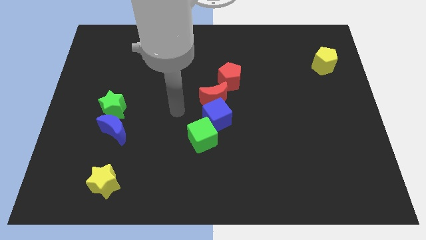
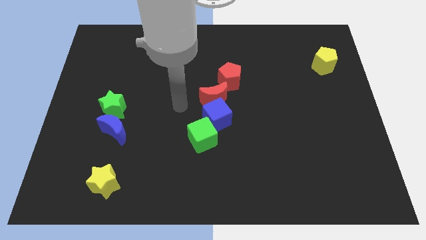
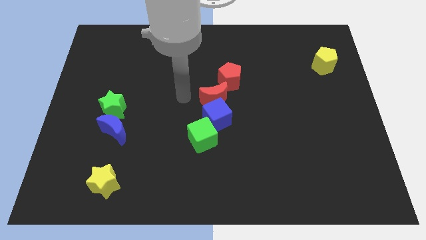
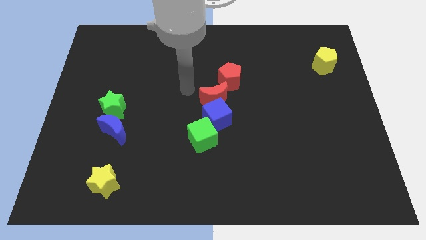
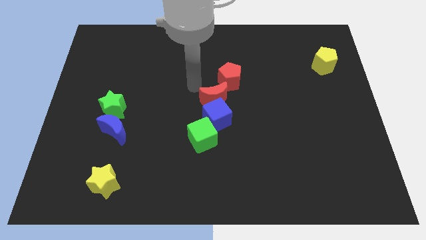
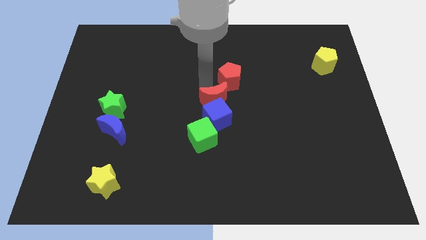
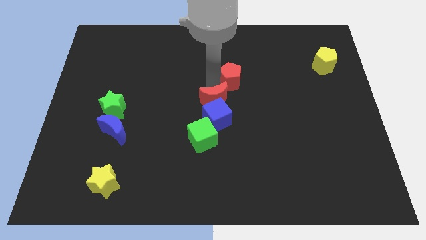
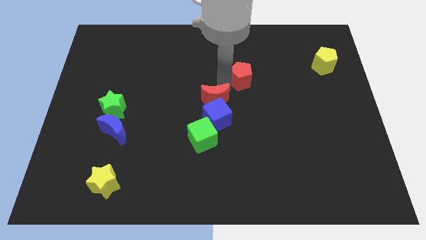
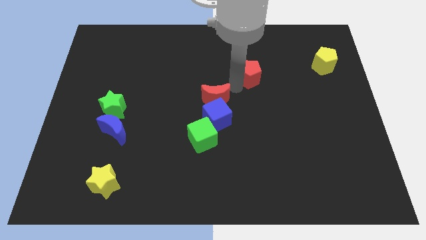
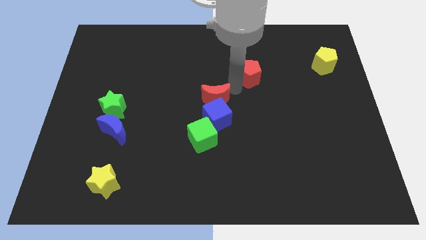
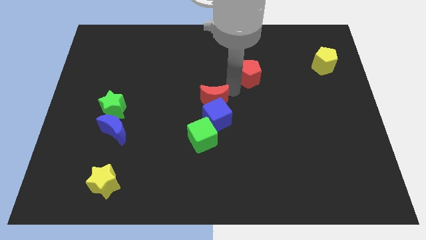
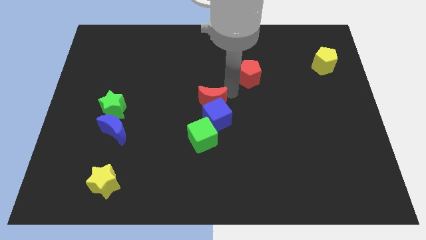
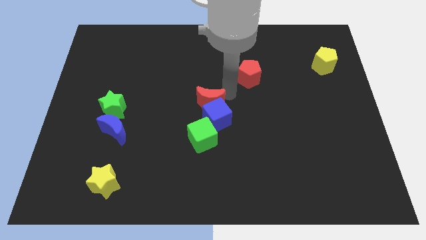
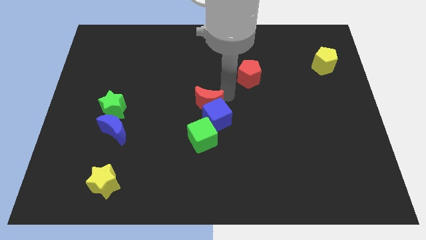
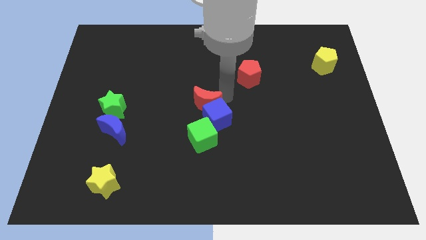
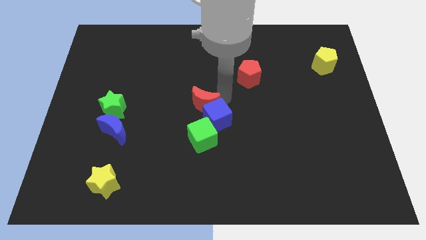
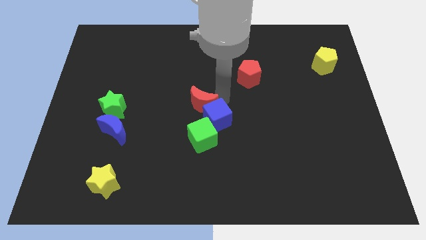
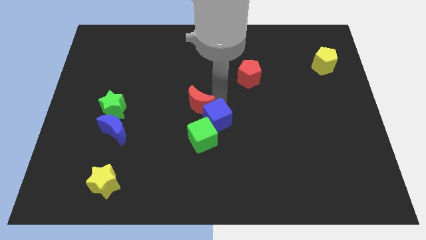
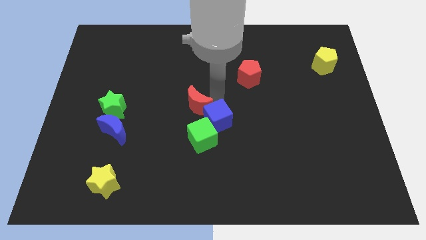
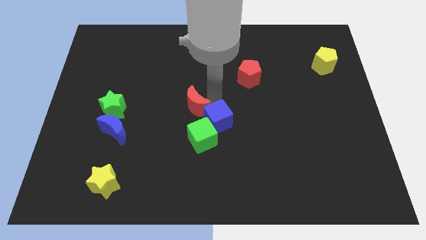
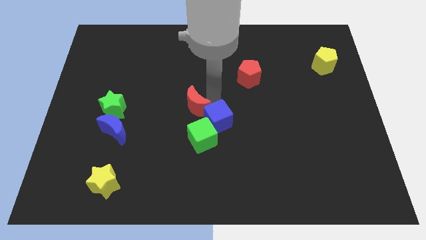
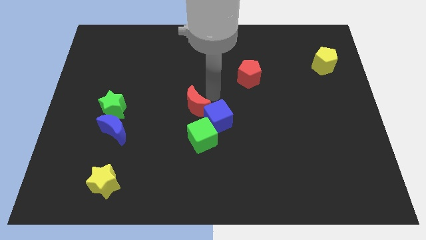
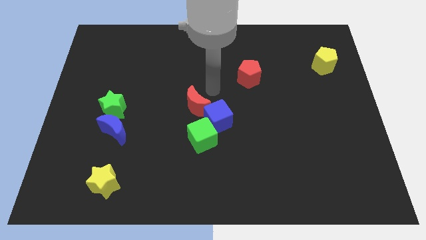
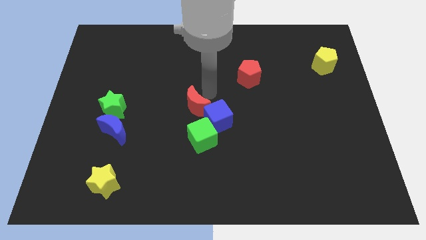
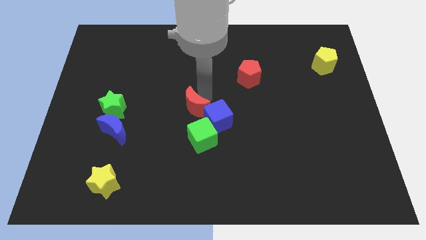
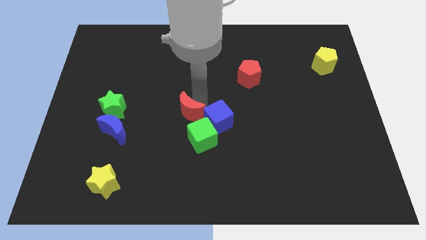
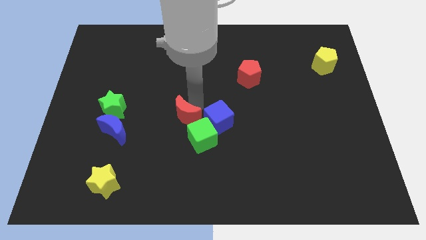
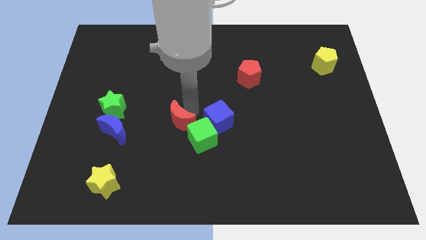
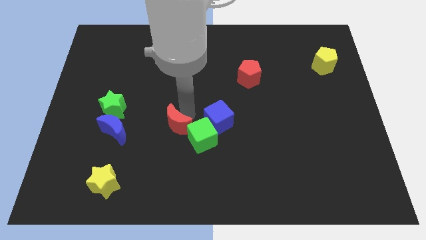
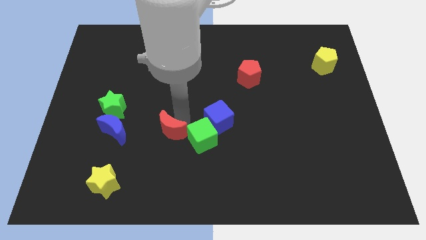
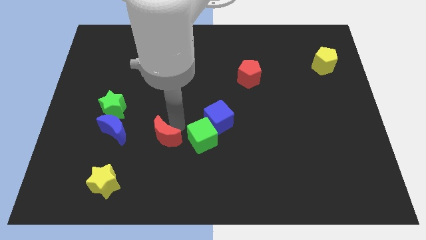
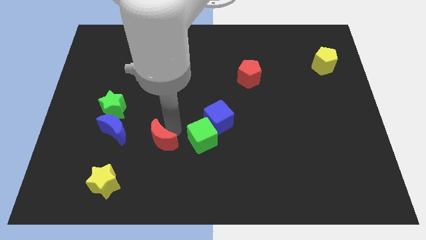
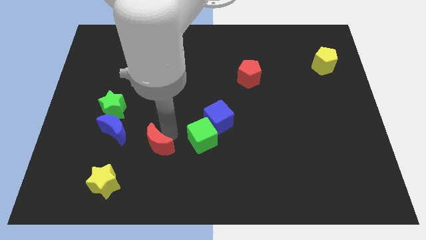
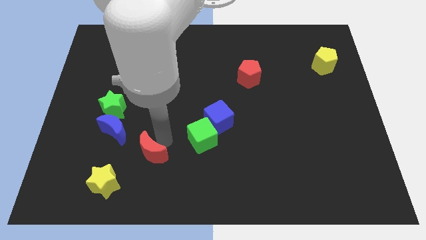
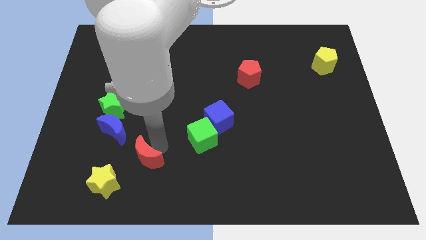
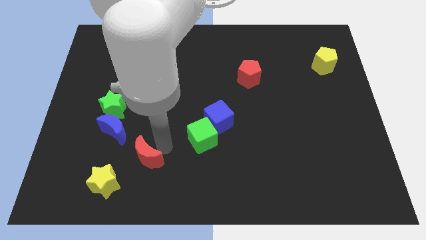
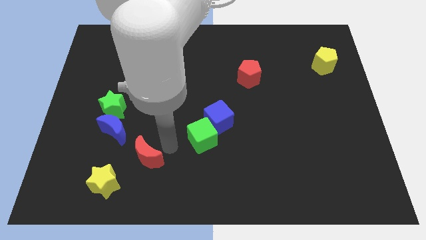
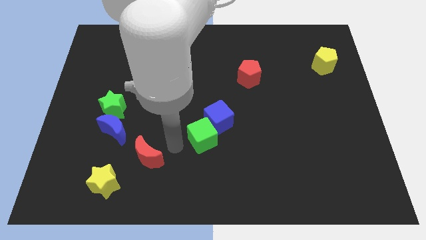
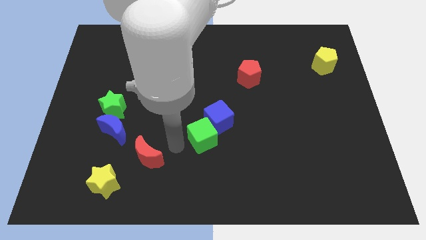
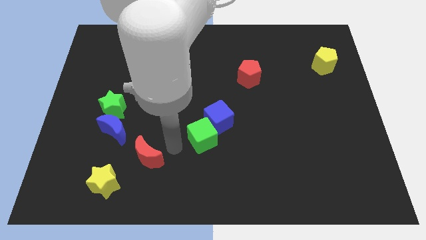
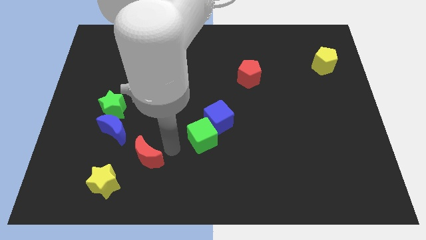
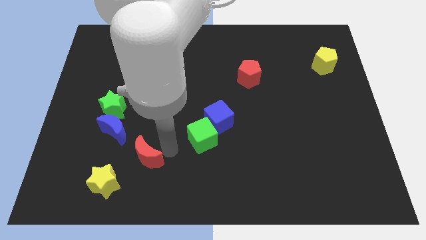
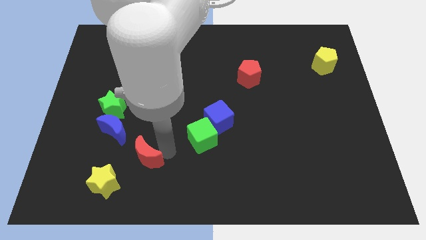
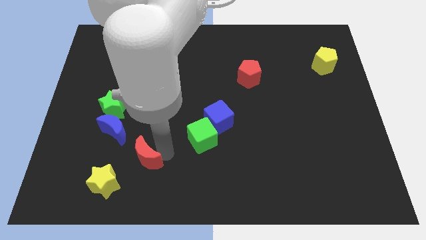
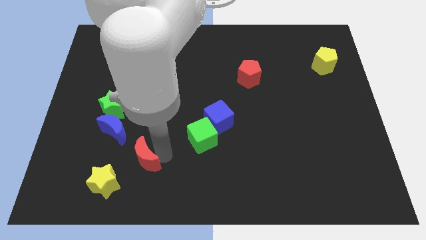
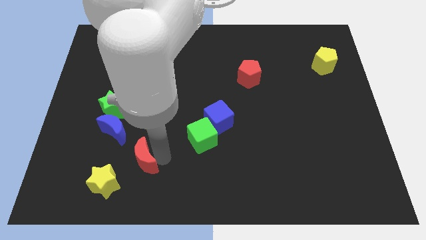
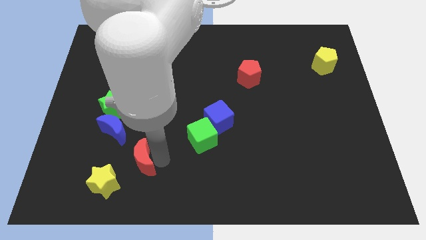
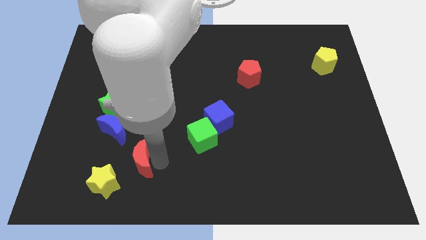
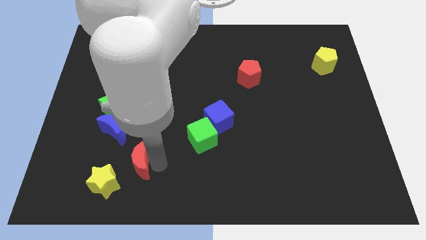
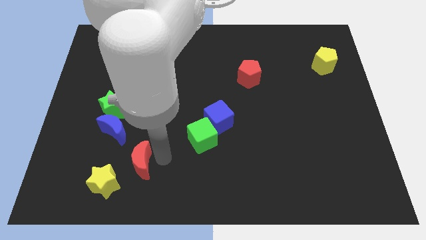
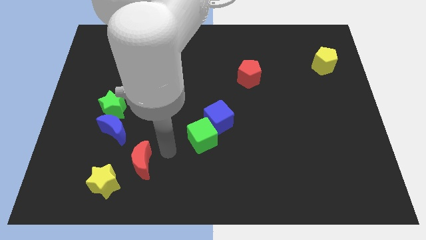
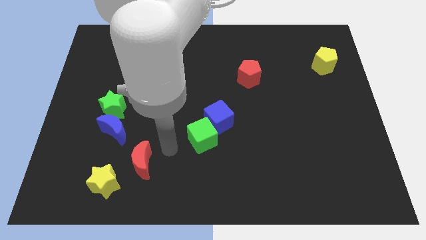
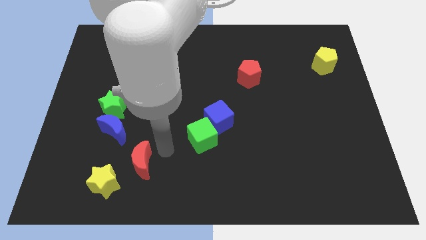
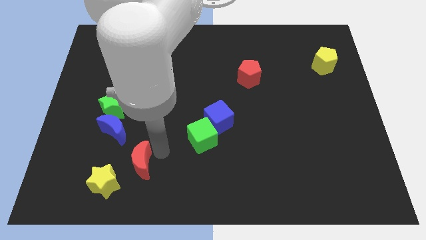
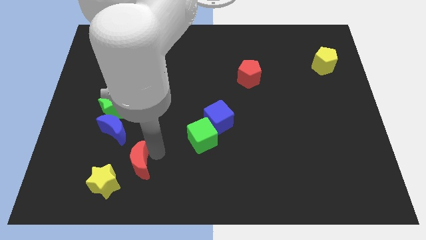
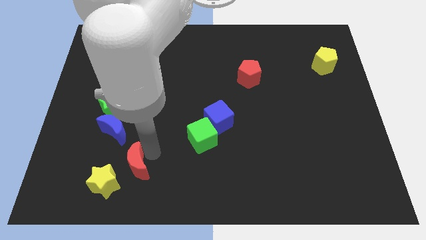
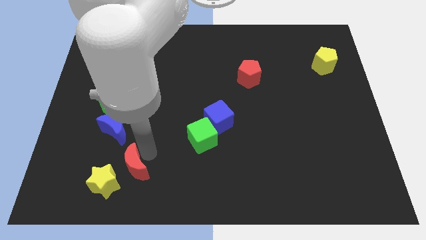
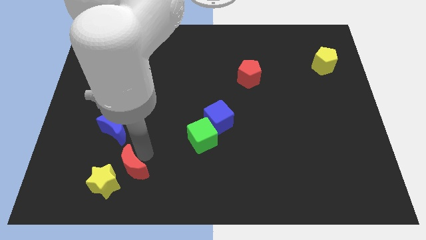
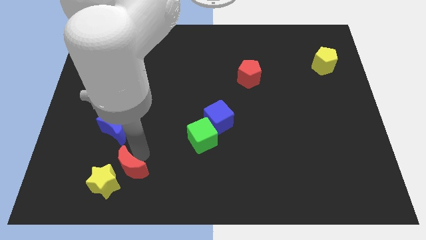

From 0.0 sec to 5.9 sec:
put the red moon close to the yellow star

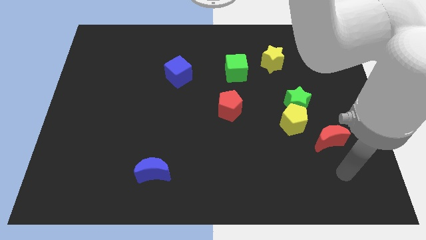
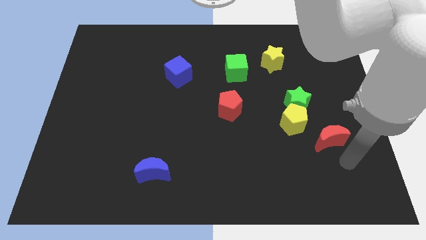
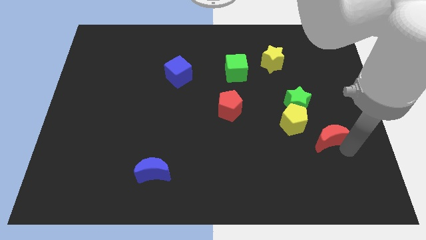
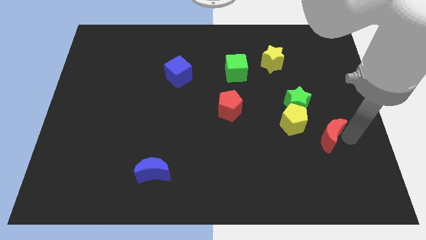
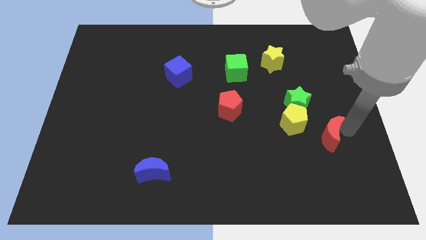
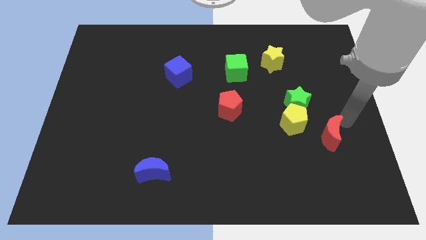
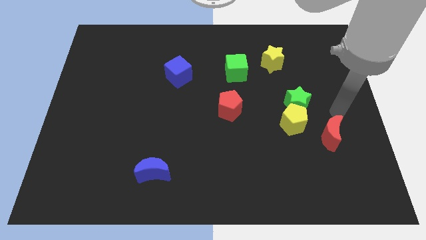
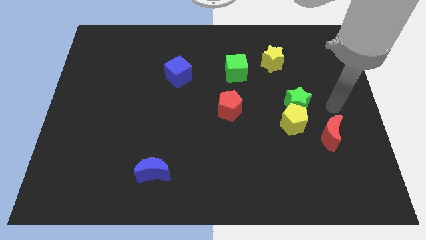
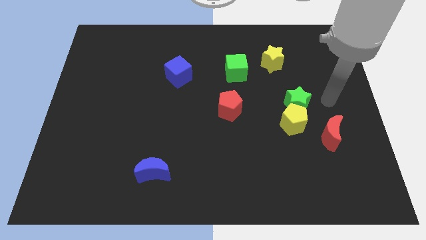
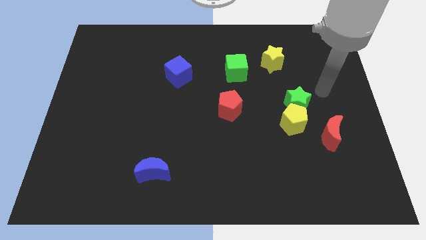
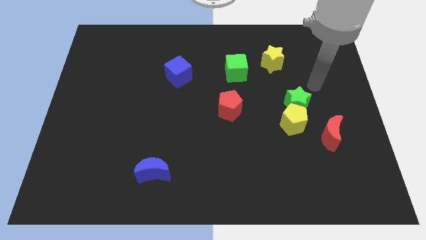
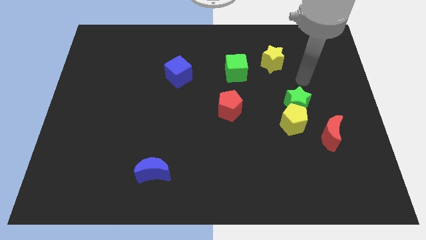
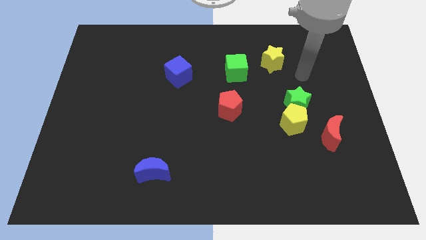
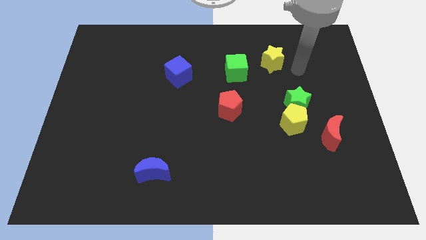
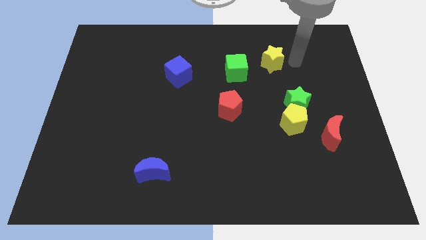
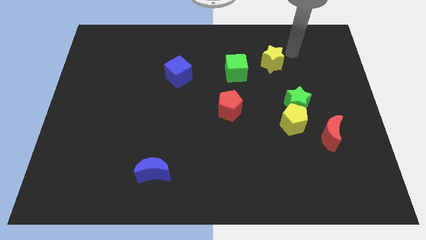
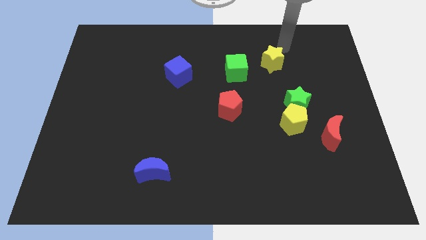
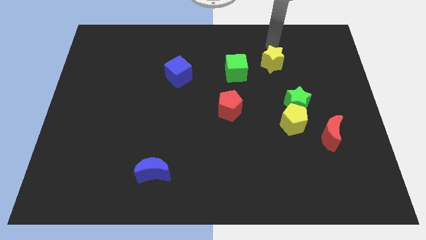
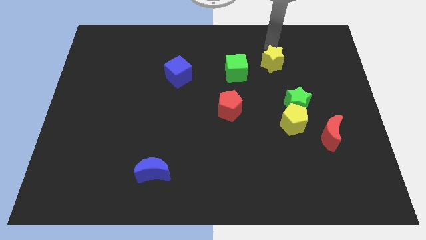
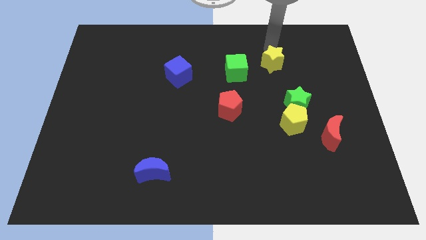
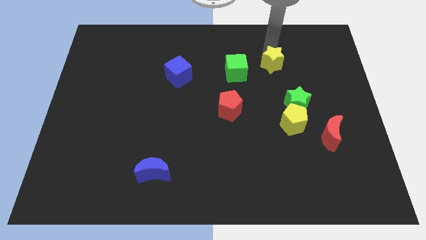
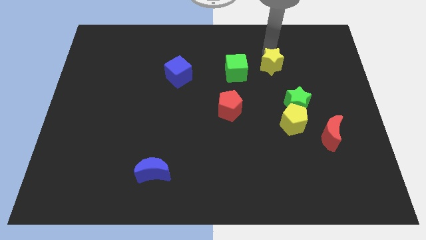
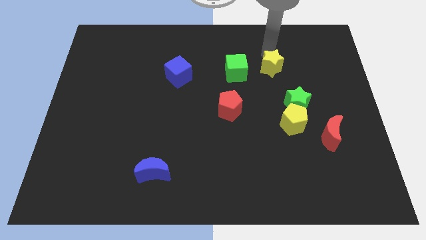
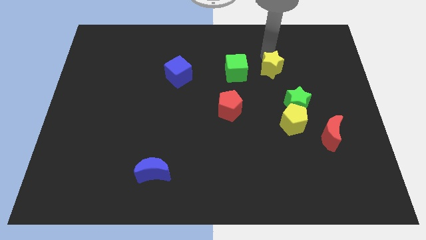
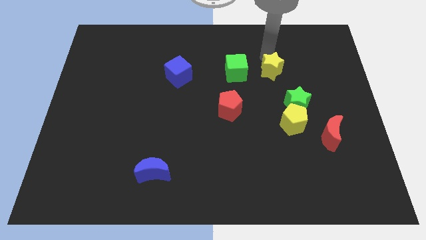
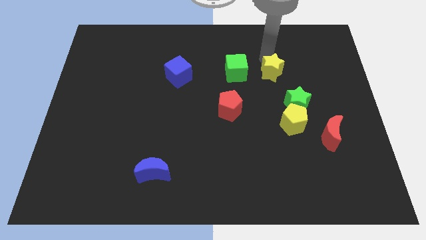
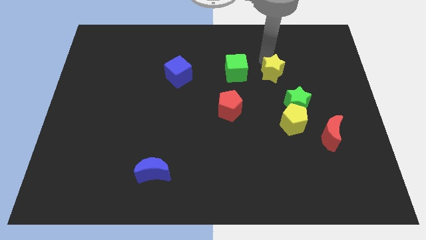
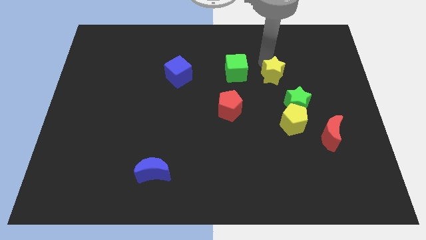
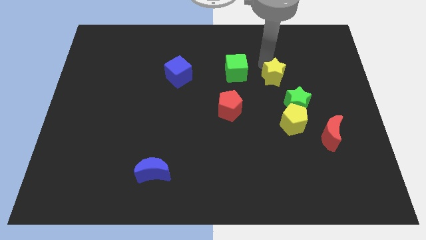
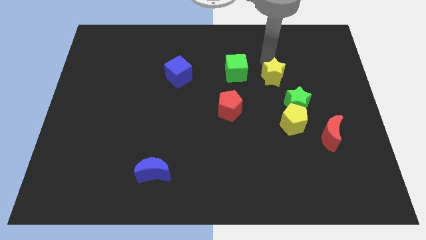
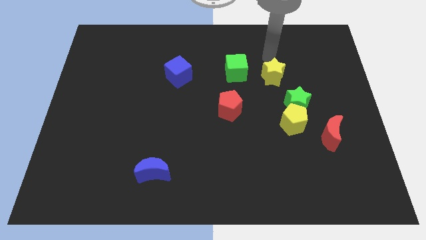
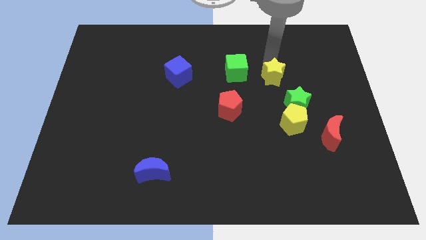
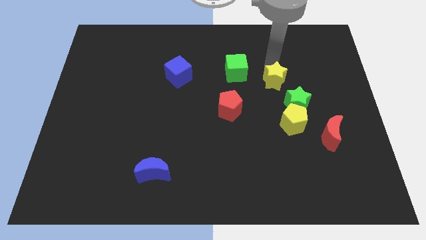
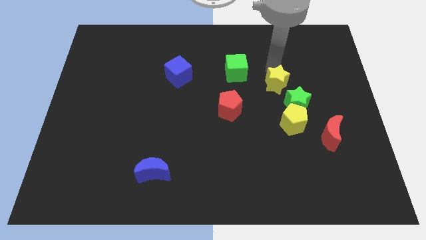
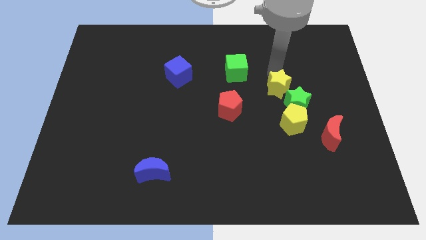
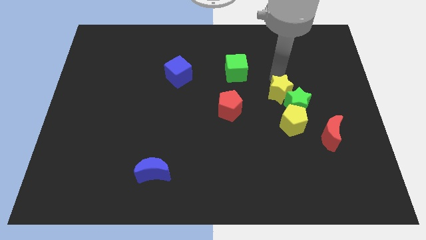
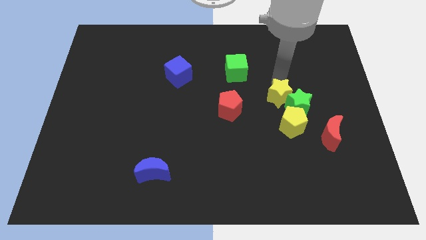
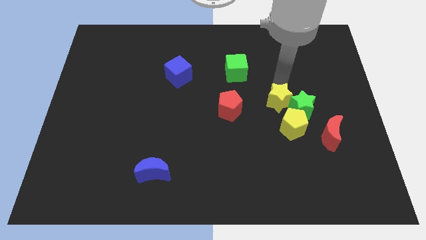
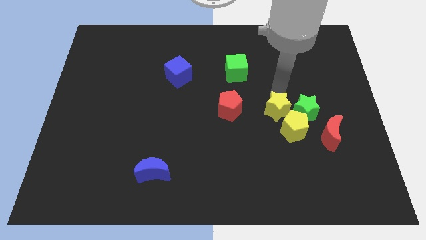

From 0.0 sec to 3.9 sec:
put the yellow star next to the yellow pentagon
